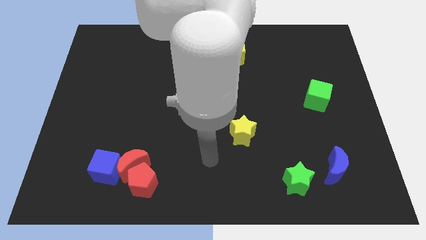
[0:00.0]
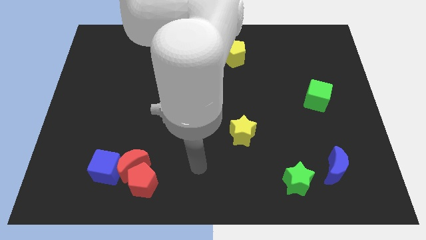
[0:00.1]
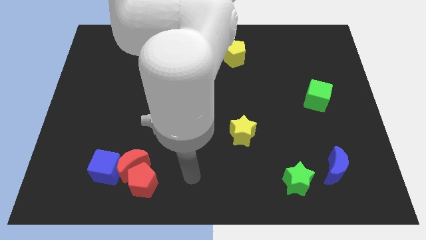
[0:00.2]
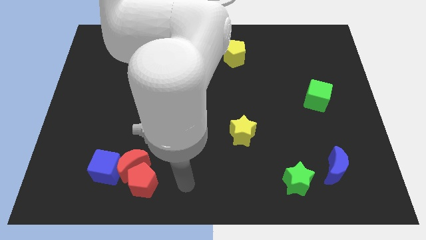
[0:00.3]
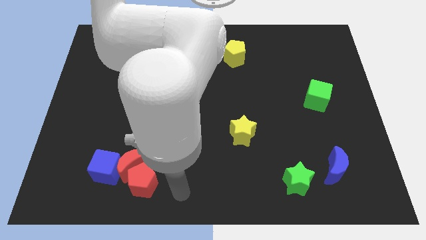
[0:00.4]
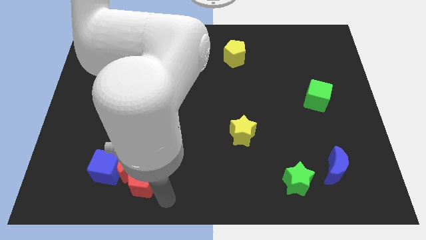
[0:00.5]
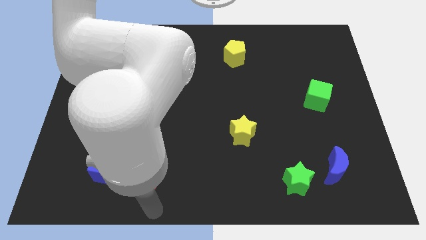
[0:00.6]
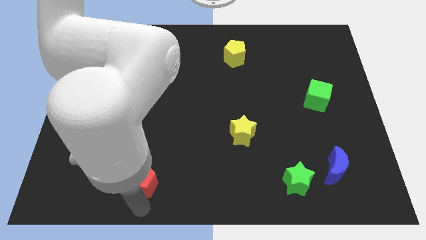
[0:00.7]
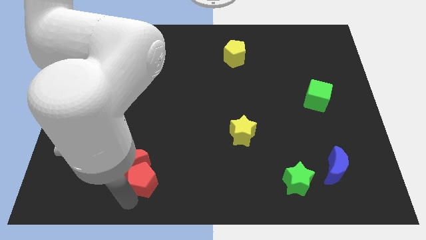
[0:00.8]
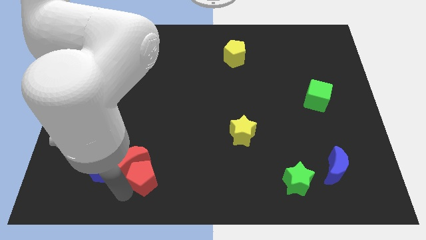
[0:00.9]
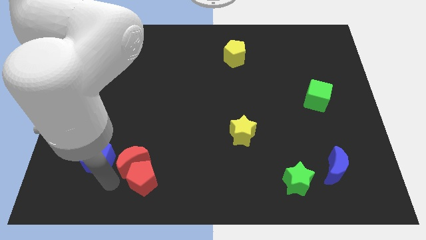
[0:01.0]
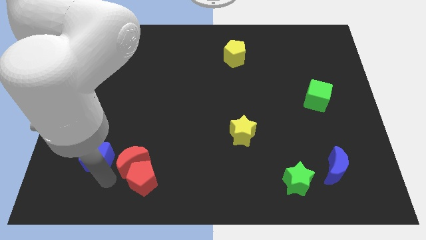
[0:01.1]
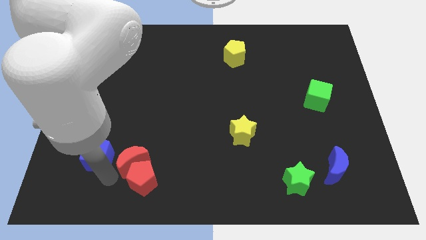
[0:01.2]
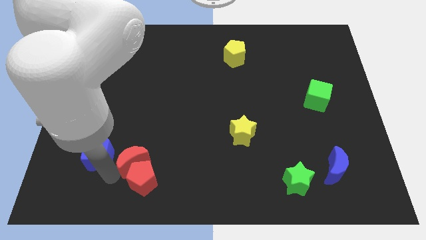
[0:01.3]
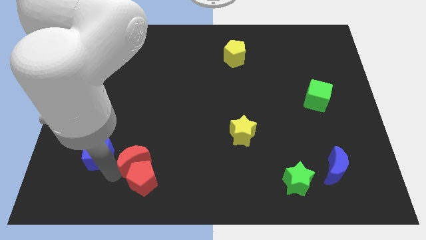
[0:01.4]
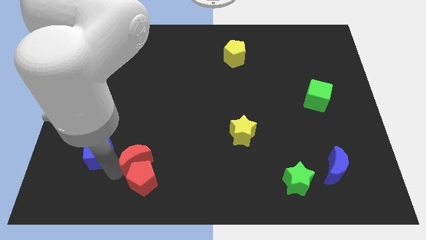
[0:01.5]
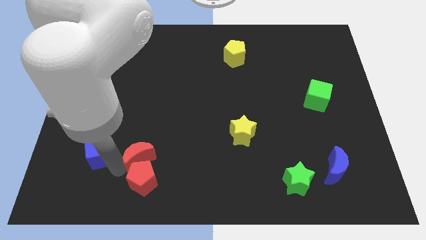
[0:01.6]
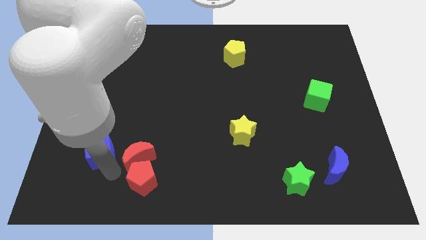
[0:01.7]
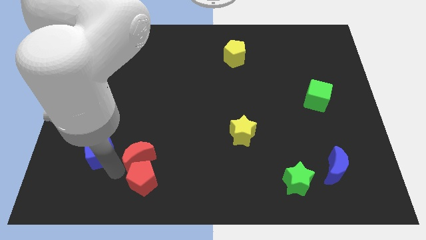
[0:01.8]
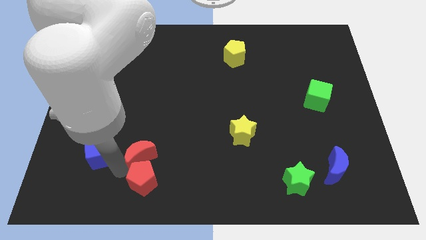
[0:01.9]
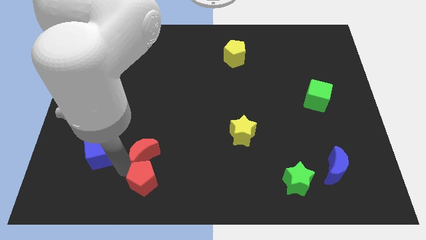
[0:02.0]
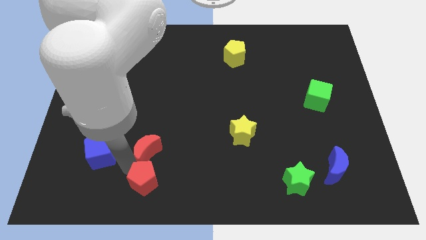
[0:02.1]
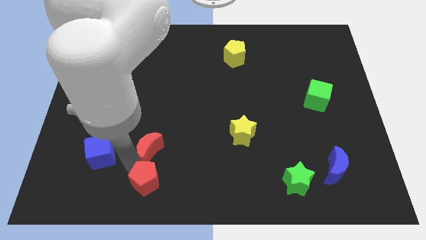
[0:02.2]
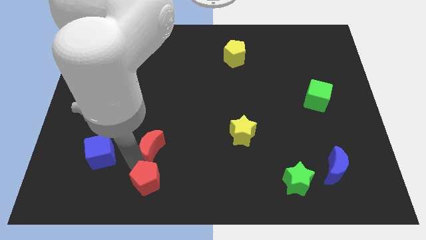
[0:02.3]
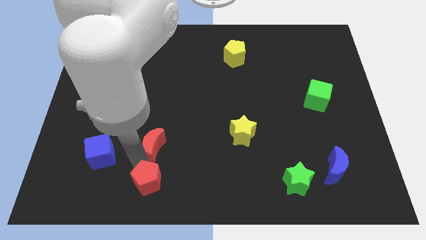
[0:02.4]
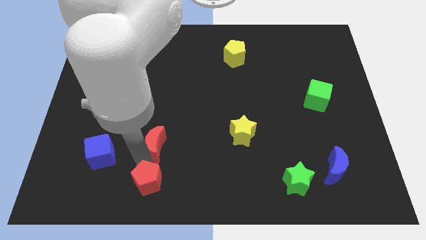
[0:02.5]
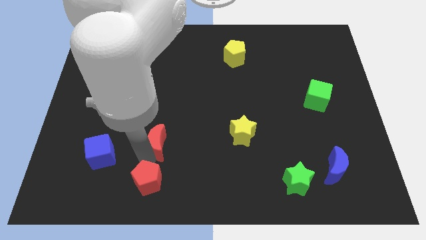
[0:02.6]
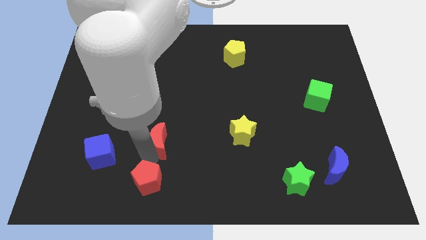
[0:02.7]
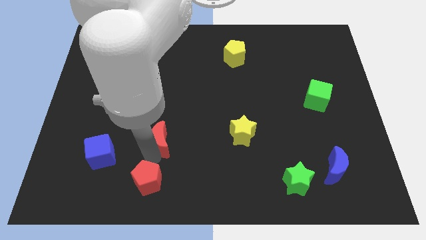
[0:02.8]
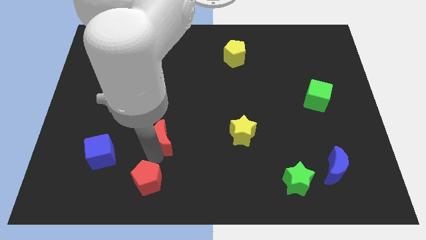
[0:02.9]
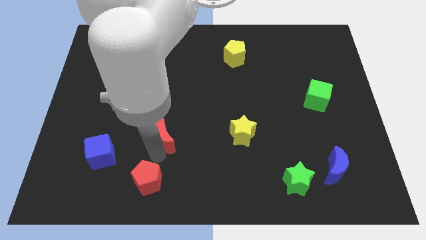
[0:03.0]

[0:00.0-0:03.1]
separate the red moon from the red pentagon and blue cube

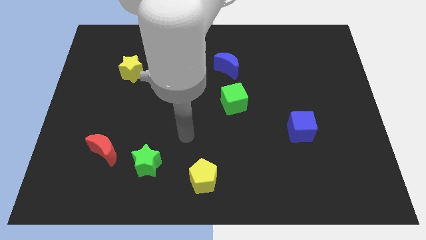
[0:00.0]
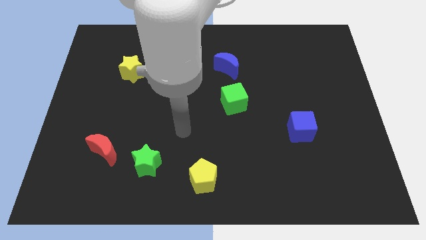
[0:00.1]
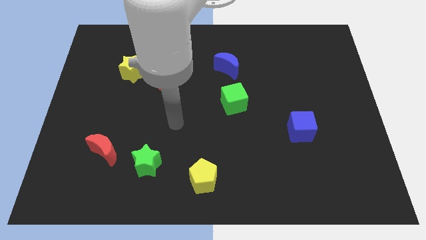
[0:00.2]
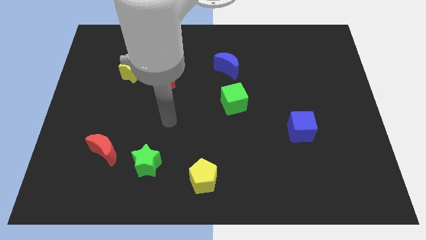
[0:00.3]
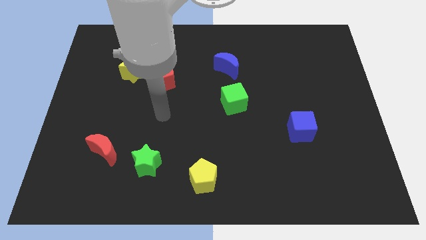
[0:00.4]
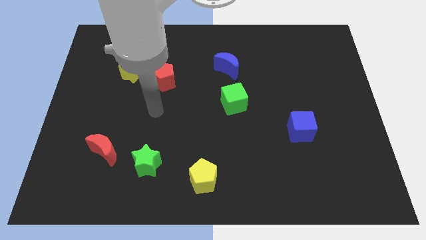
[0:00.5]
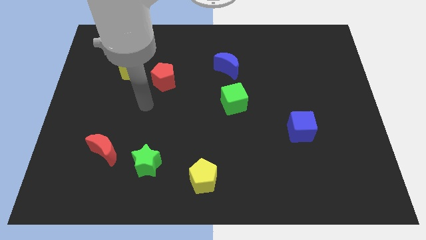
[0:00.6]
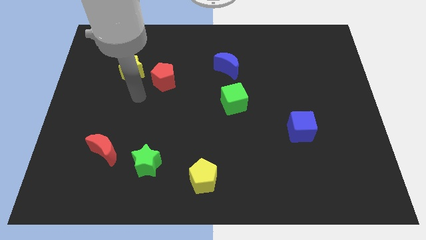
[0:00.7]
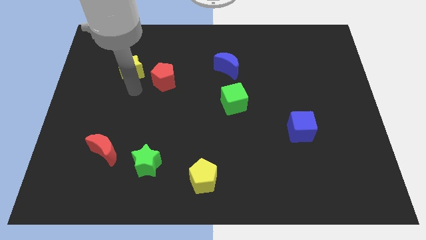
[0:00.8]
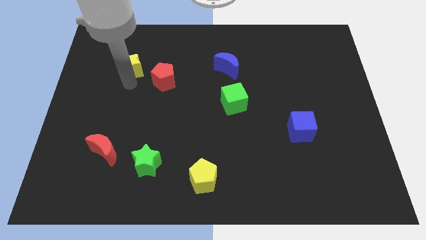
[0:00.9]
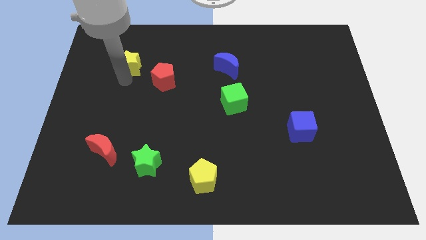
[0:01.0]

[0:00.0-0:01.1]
pull the red pentagon apart from the yellow star

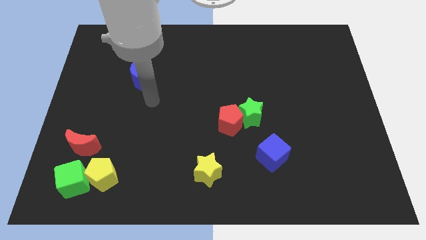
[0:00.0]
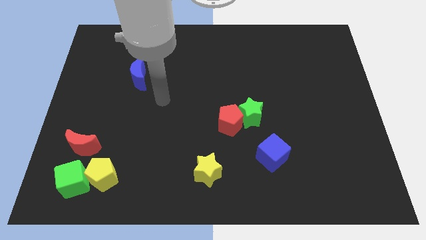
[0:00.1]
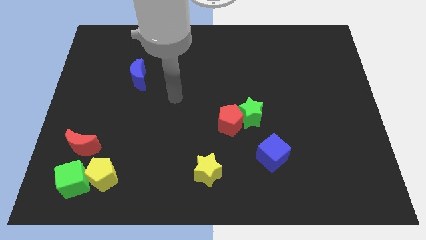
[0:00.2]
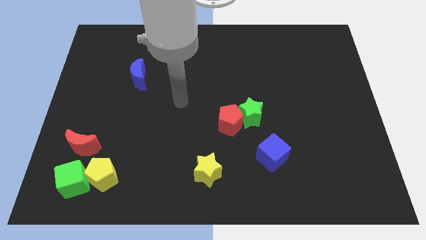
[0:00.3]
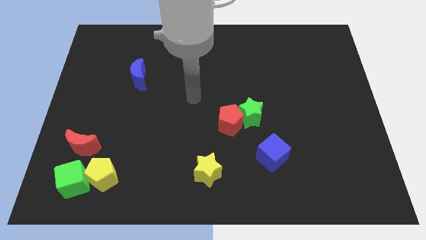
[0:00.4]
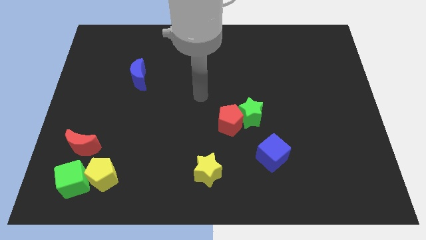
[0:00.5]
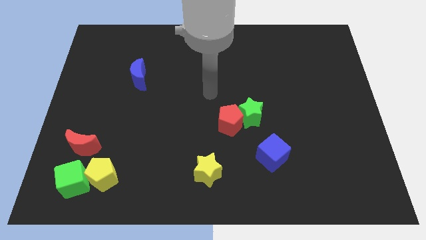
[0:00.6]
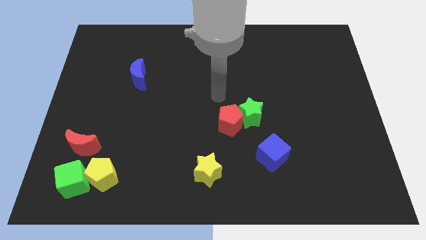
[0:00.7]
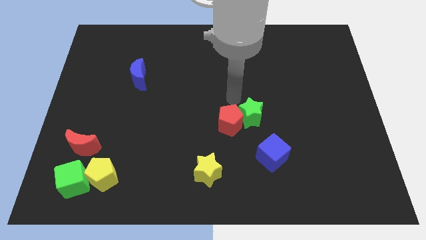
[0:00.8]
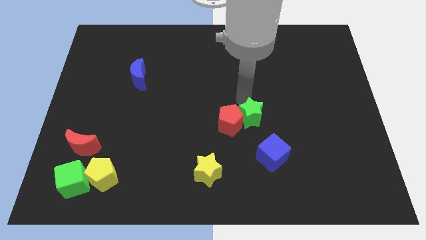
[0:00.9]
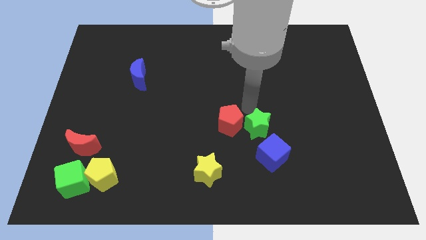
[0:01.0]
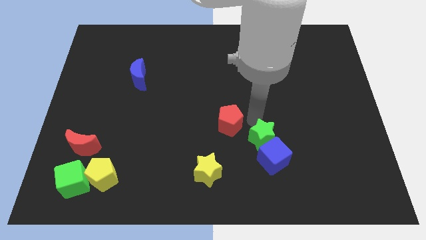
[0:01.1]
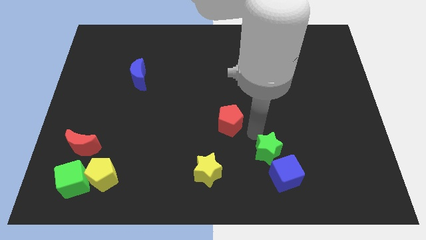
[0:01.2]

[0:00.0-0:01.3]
separate the red pentagon from the green star

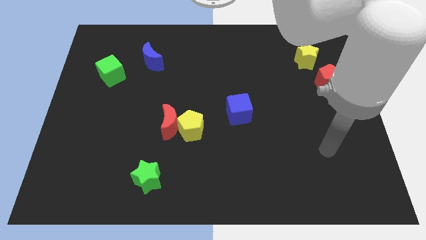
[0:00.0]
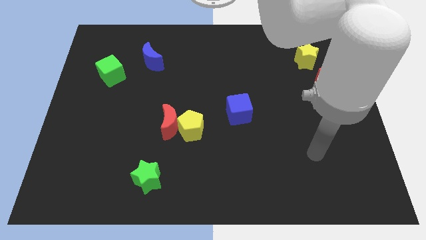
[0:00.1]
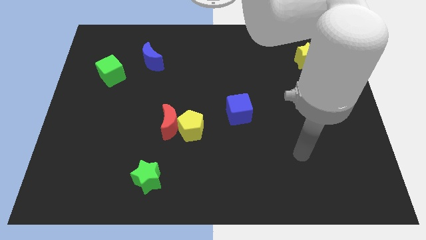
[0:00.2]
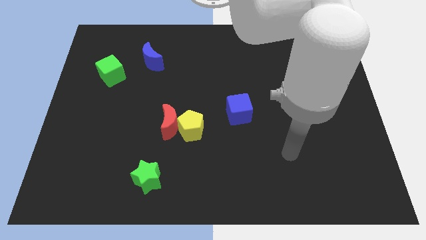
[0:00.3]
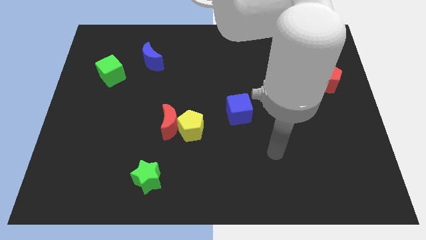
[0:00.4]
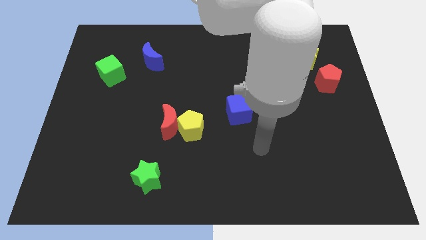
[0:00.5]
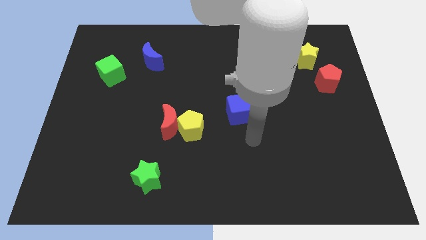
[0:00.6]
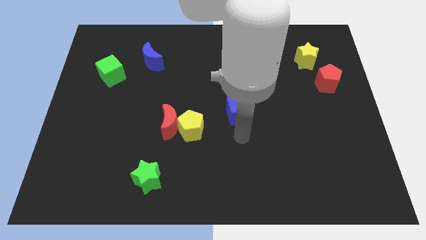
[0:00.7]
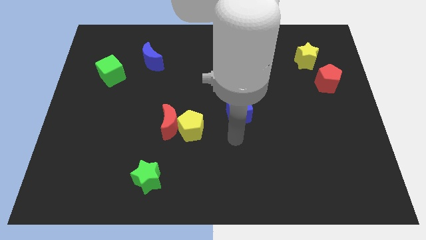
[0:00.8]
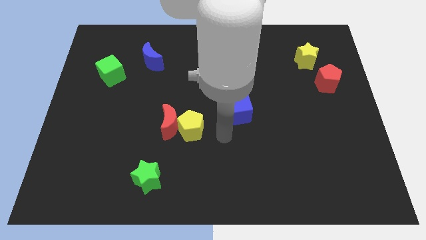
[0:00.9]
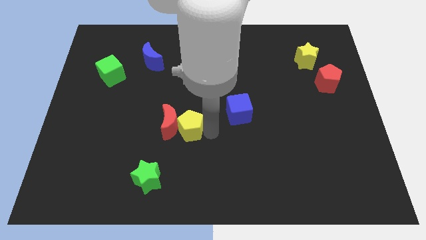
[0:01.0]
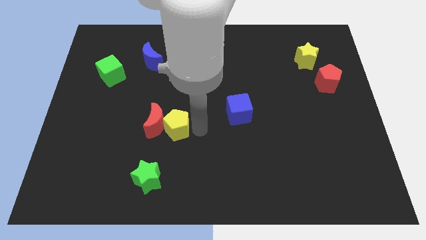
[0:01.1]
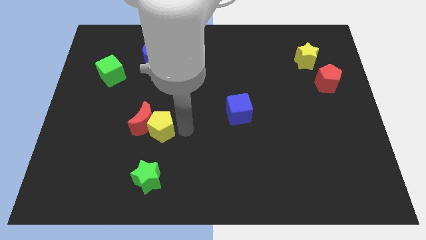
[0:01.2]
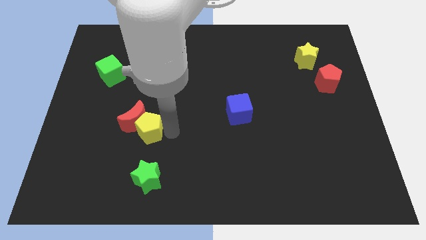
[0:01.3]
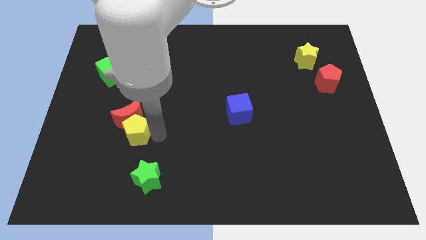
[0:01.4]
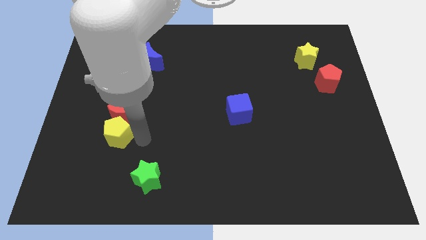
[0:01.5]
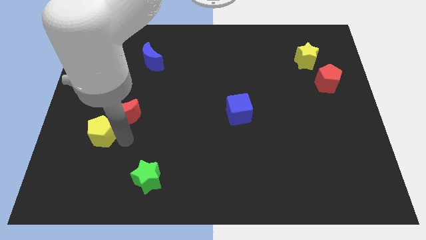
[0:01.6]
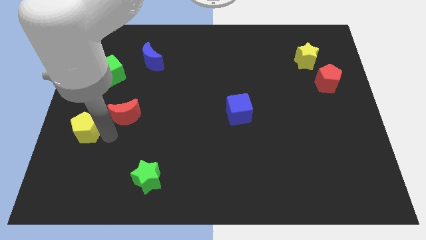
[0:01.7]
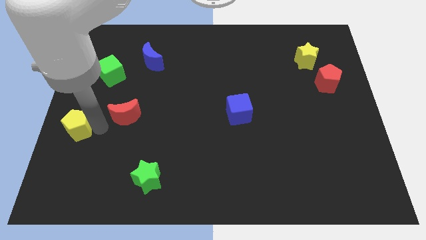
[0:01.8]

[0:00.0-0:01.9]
pull the red moon apart from the yellow pentagon

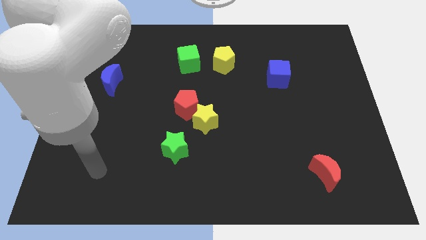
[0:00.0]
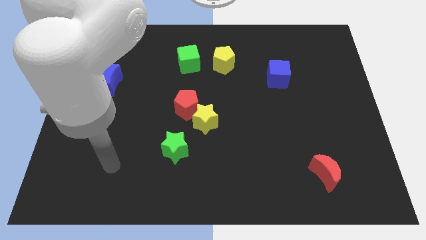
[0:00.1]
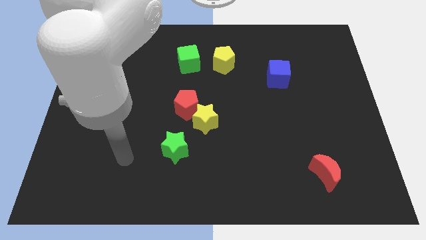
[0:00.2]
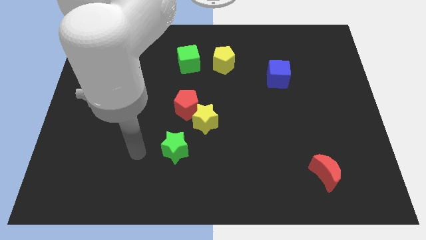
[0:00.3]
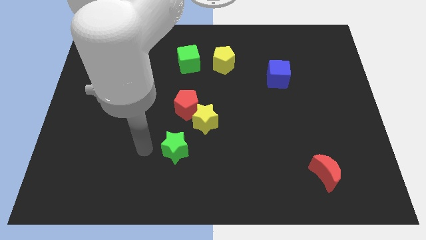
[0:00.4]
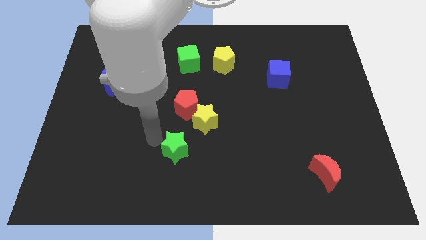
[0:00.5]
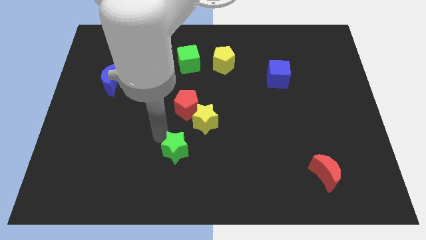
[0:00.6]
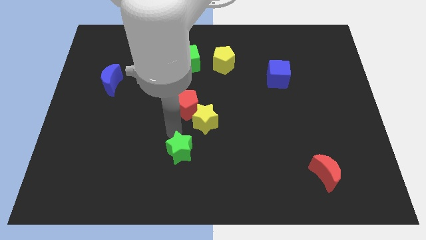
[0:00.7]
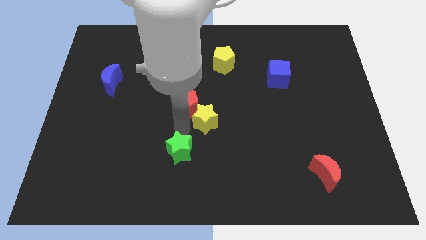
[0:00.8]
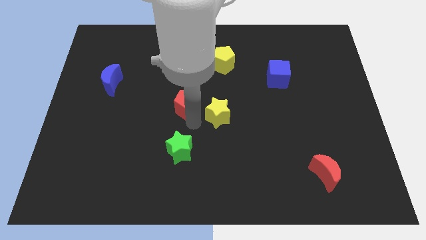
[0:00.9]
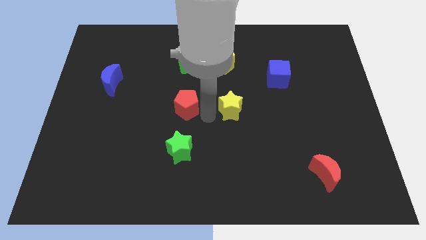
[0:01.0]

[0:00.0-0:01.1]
separate the red pentagon from the yellow star

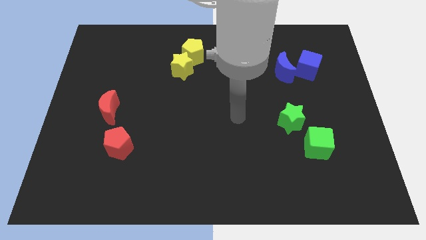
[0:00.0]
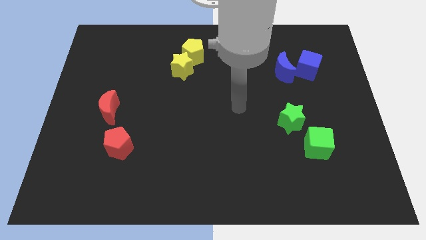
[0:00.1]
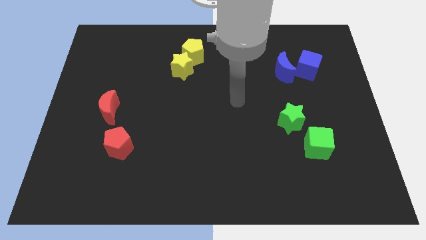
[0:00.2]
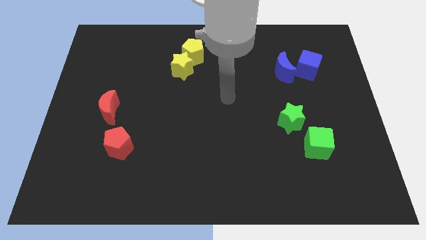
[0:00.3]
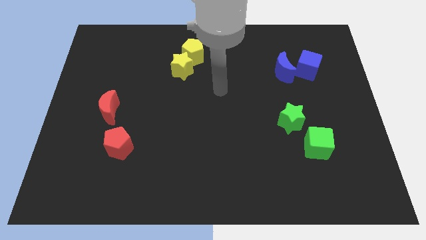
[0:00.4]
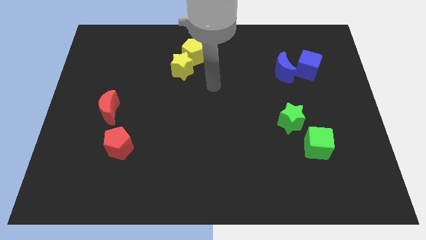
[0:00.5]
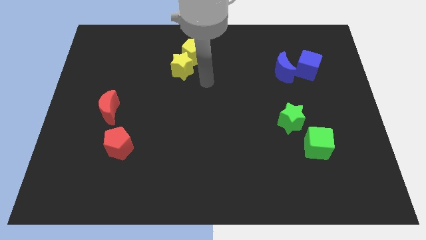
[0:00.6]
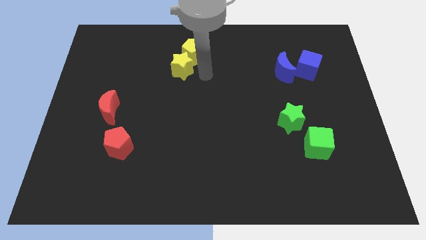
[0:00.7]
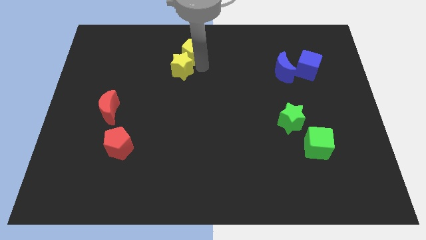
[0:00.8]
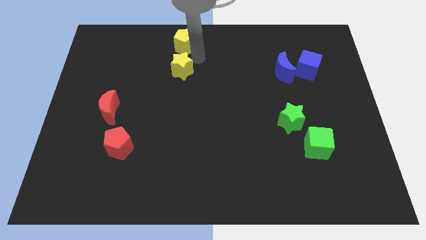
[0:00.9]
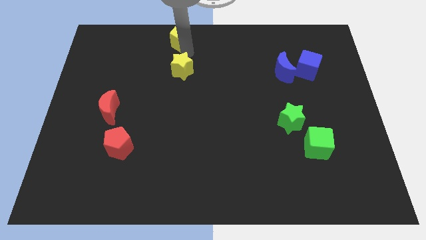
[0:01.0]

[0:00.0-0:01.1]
move the yellow star away from the yellow pentagon
